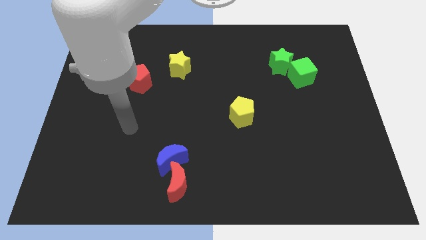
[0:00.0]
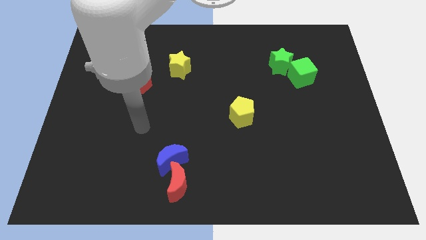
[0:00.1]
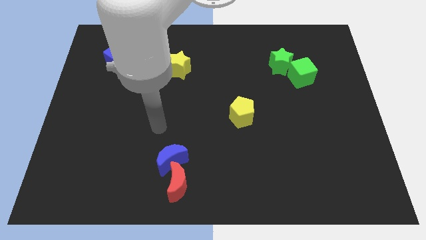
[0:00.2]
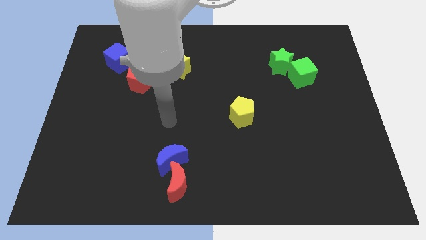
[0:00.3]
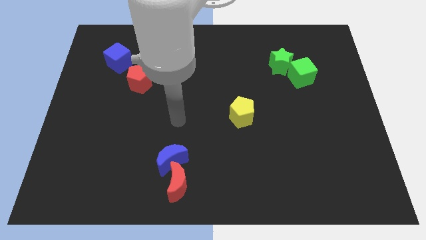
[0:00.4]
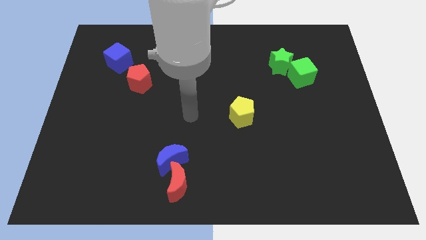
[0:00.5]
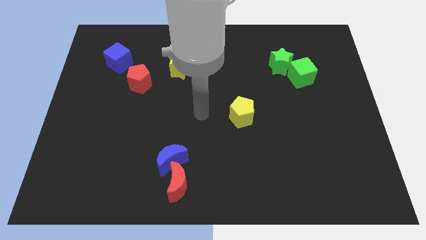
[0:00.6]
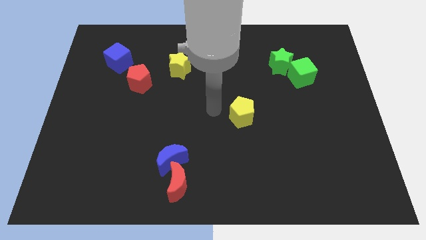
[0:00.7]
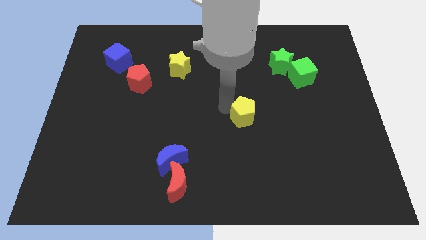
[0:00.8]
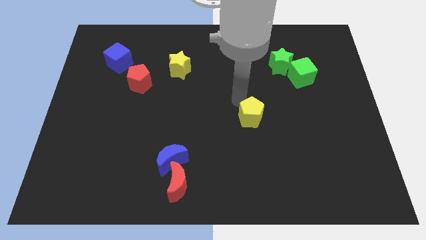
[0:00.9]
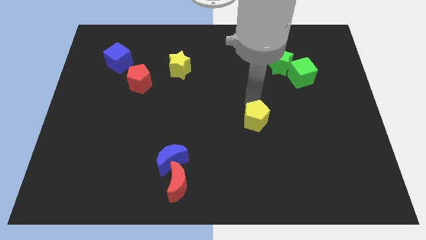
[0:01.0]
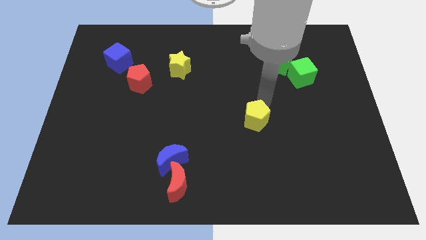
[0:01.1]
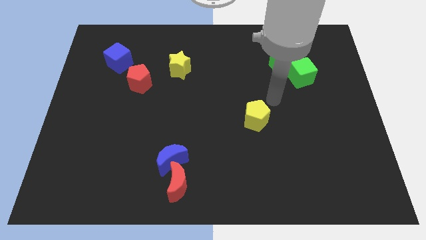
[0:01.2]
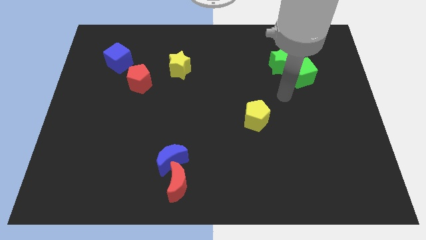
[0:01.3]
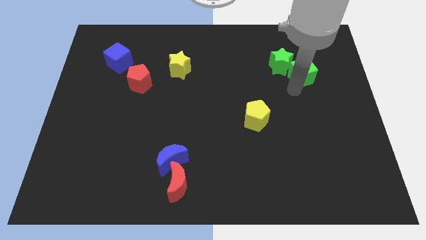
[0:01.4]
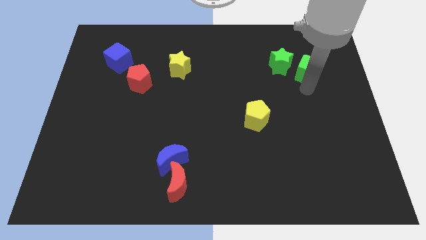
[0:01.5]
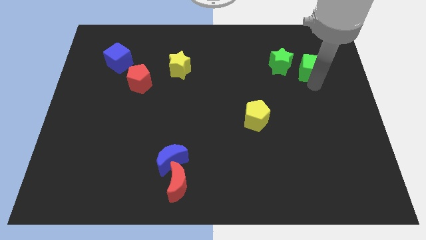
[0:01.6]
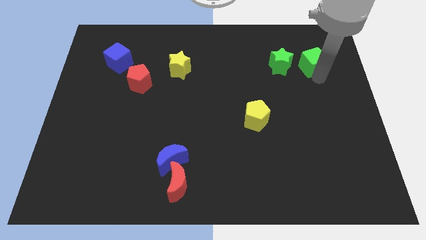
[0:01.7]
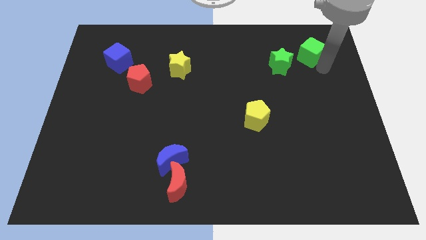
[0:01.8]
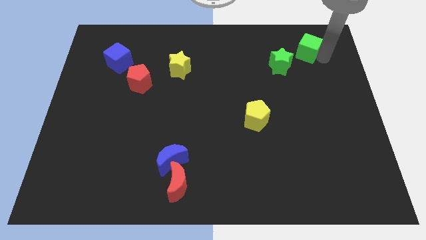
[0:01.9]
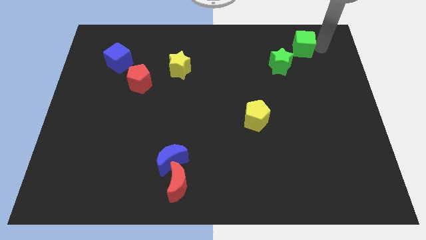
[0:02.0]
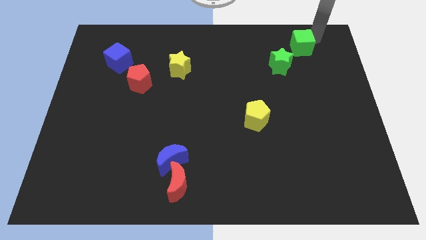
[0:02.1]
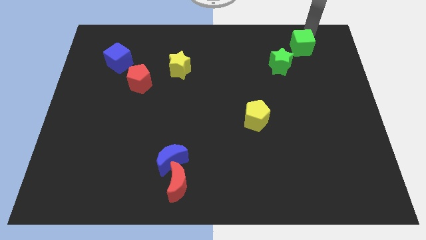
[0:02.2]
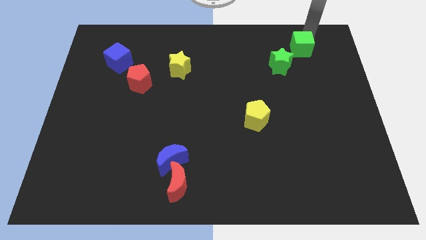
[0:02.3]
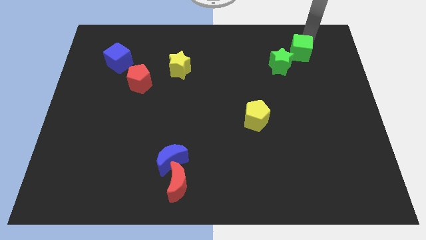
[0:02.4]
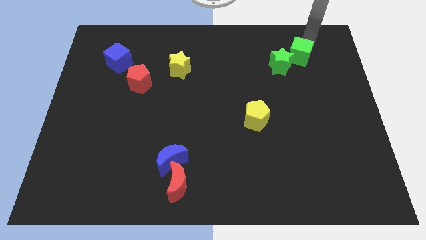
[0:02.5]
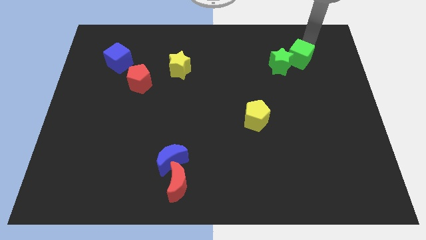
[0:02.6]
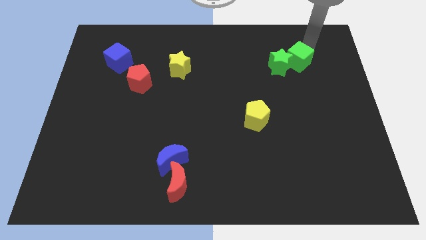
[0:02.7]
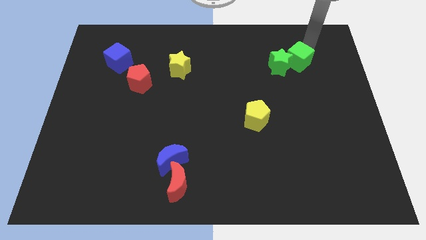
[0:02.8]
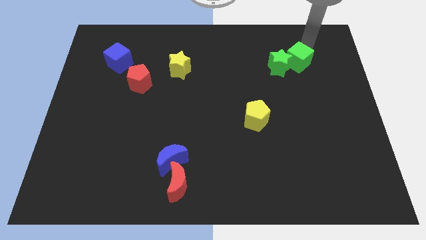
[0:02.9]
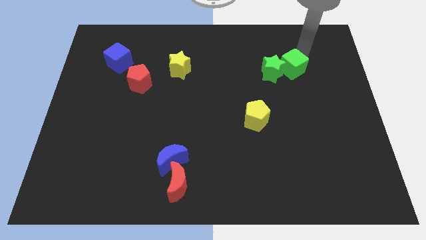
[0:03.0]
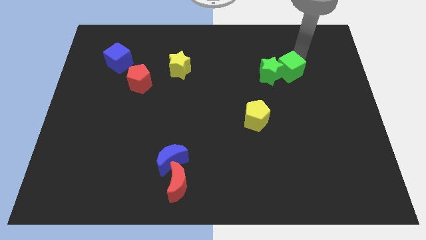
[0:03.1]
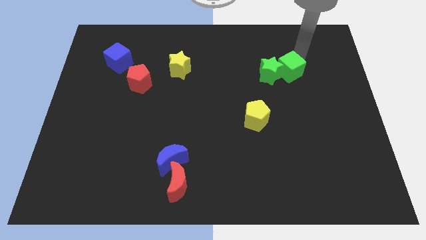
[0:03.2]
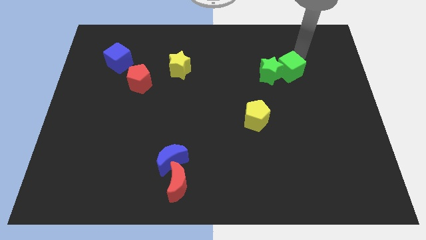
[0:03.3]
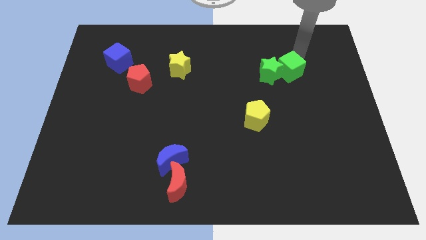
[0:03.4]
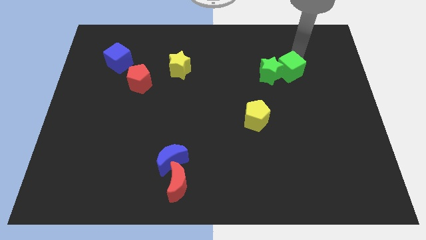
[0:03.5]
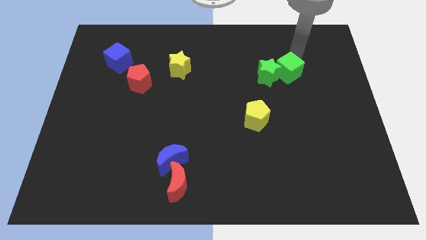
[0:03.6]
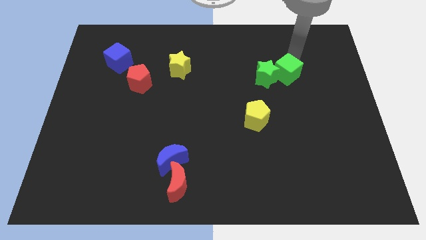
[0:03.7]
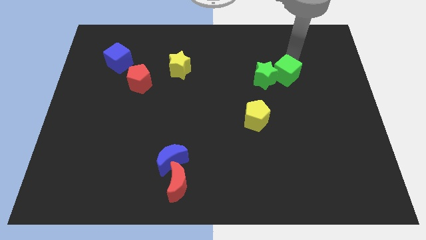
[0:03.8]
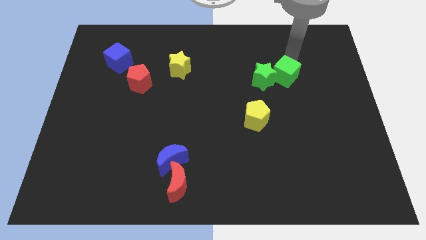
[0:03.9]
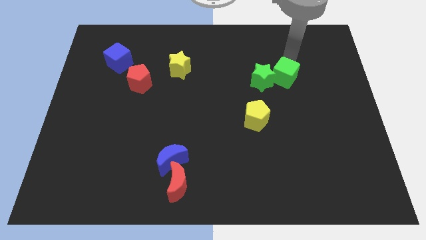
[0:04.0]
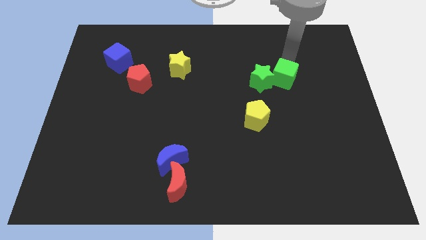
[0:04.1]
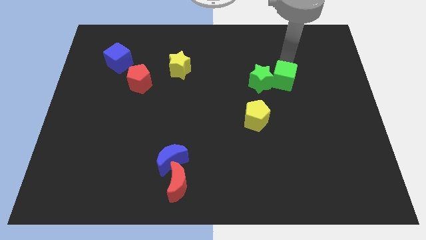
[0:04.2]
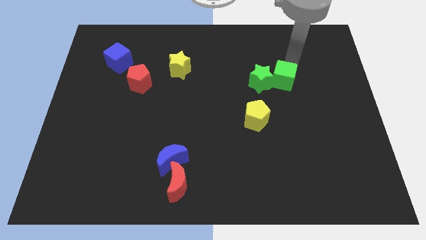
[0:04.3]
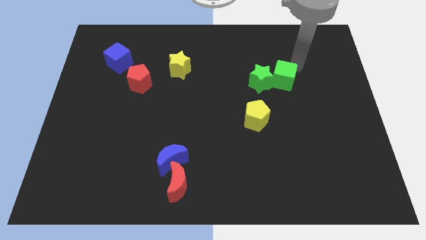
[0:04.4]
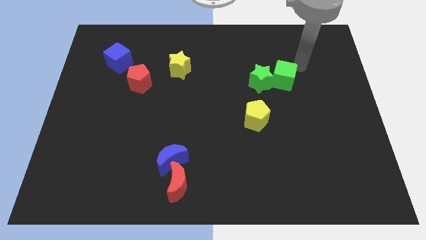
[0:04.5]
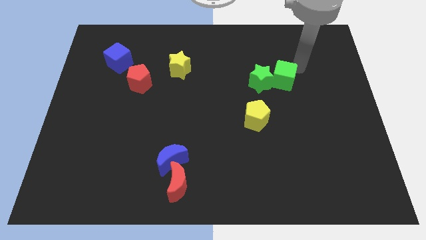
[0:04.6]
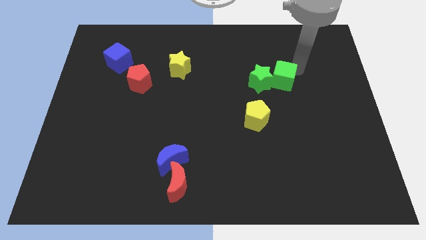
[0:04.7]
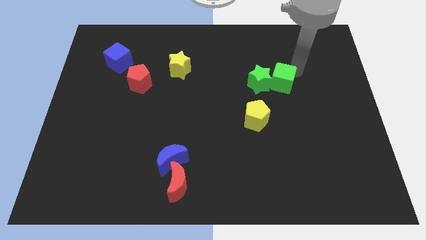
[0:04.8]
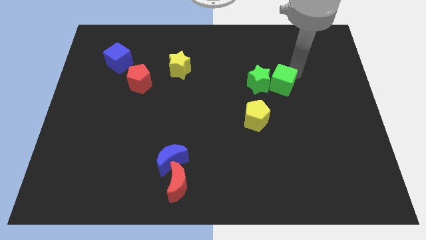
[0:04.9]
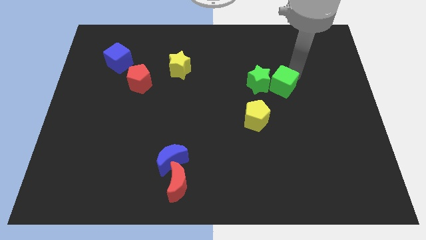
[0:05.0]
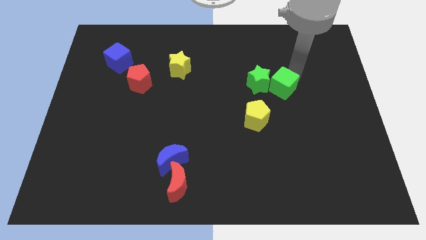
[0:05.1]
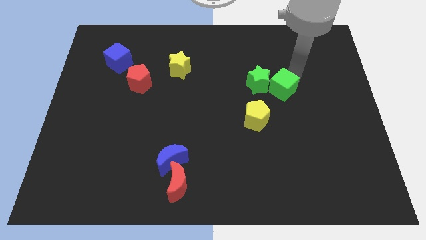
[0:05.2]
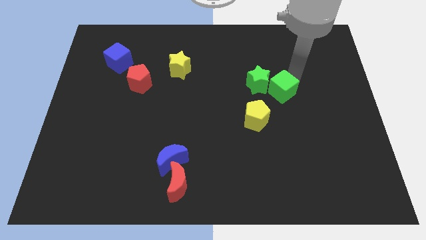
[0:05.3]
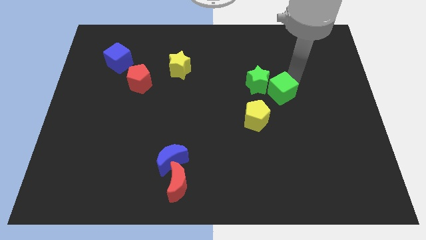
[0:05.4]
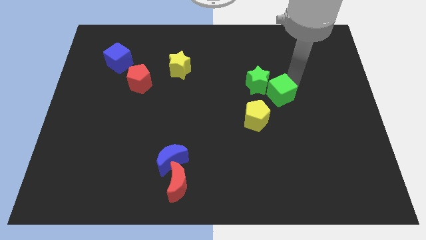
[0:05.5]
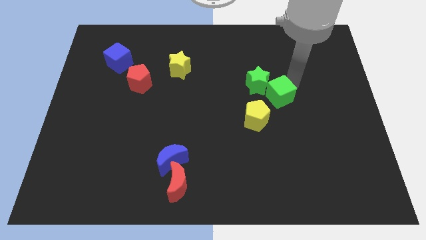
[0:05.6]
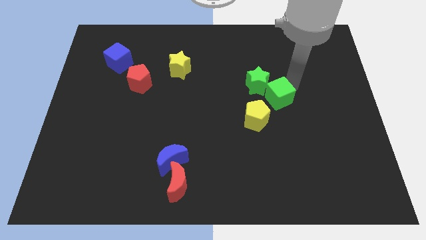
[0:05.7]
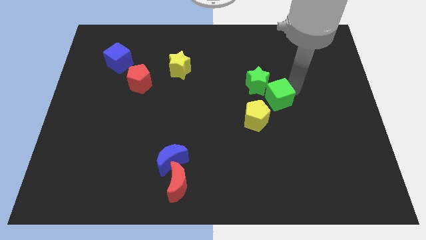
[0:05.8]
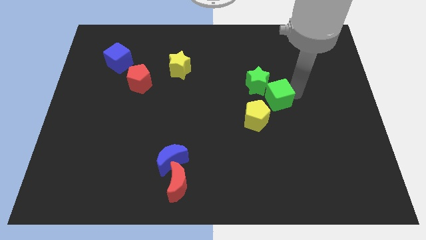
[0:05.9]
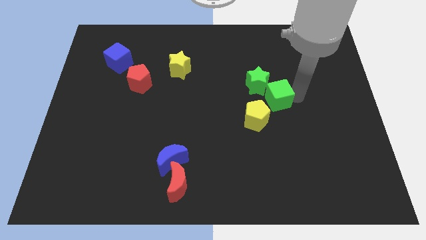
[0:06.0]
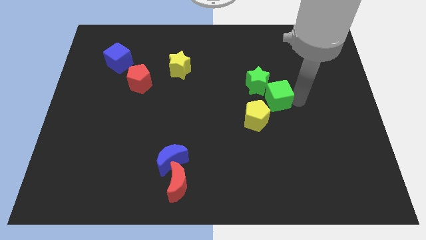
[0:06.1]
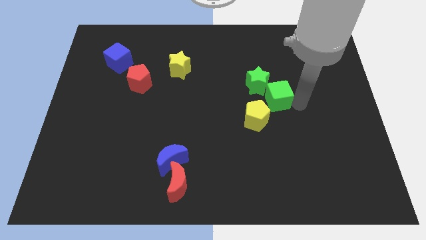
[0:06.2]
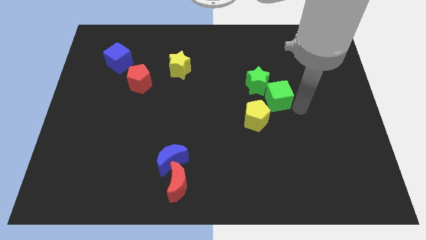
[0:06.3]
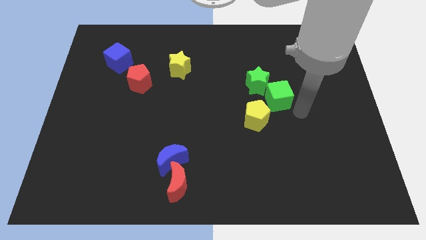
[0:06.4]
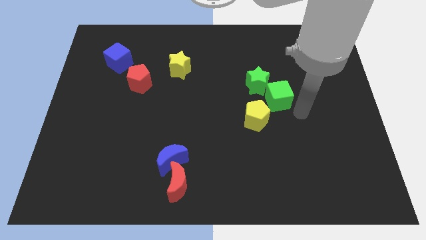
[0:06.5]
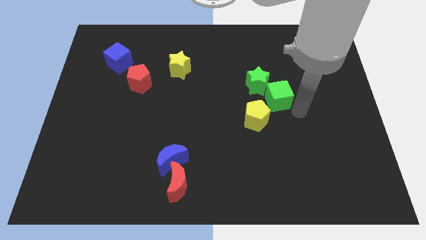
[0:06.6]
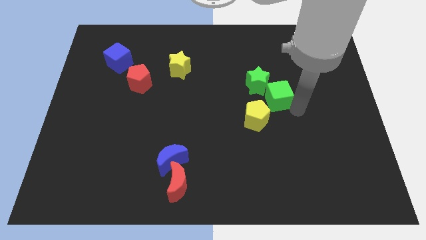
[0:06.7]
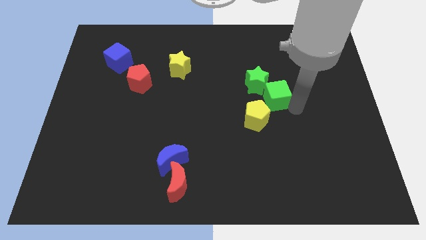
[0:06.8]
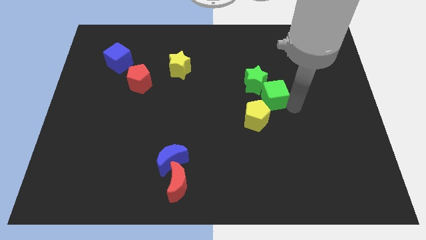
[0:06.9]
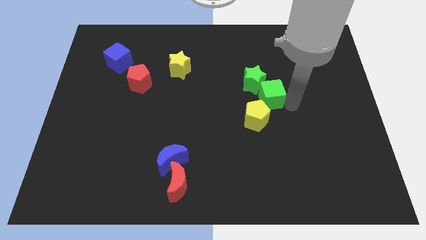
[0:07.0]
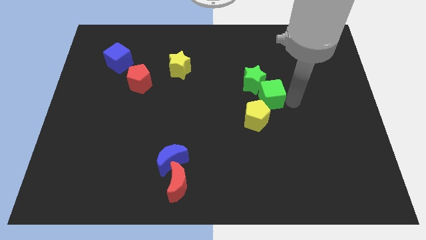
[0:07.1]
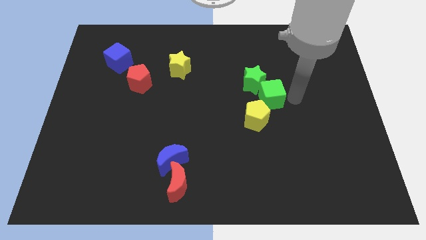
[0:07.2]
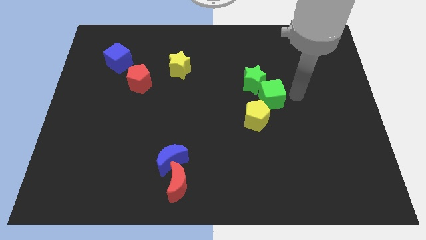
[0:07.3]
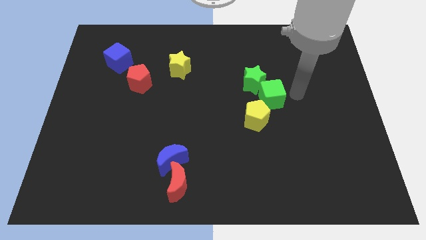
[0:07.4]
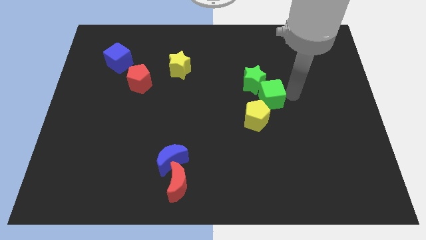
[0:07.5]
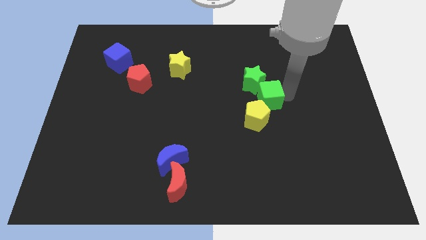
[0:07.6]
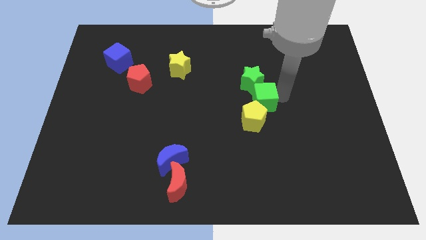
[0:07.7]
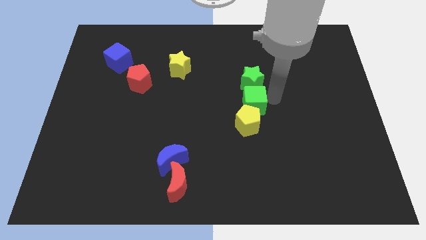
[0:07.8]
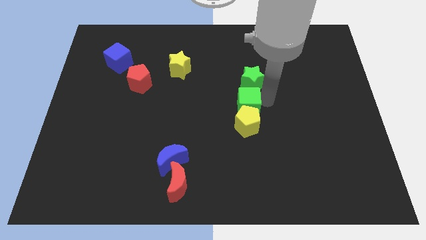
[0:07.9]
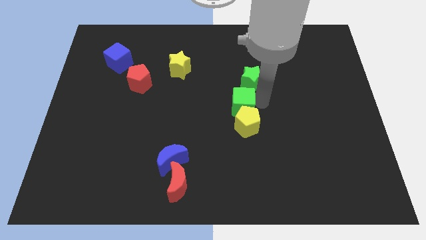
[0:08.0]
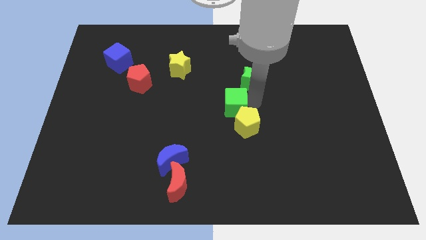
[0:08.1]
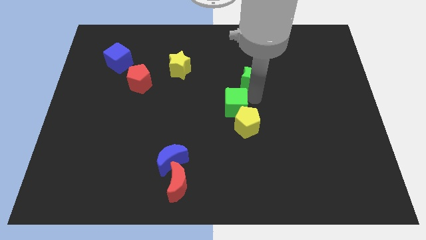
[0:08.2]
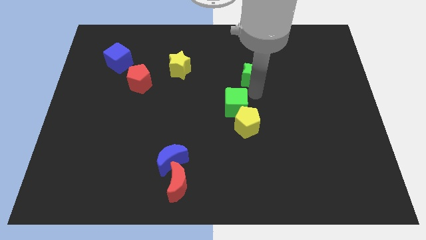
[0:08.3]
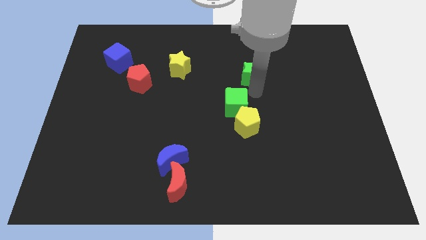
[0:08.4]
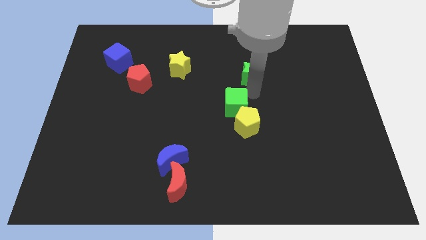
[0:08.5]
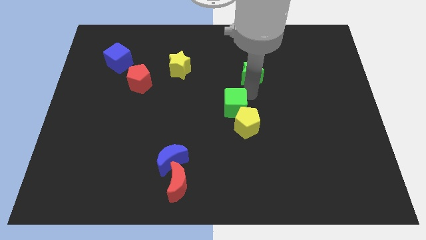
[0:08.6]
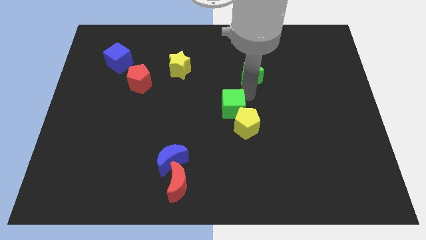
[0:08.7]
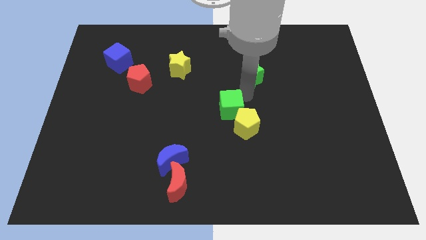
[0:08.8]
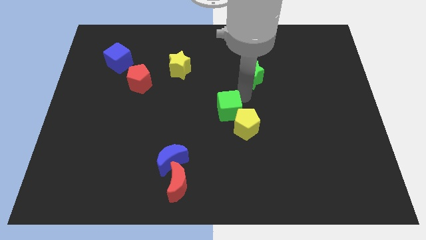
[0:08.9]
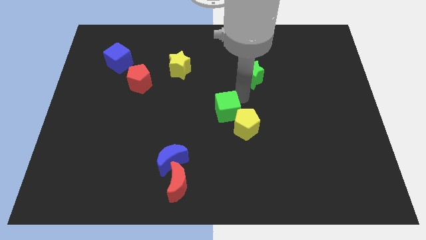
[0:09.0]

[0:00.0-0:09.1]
slide the green cube diagonally downwards and left
